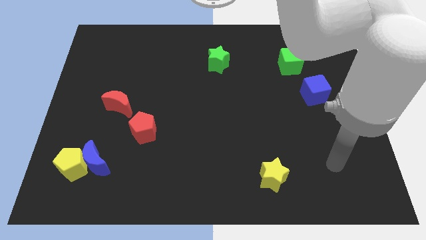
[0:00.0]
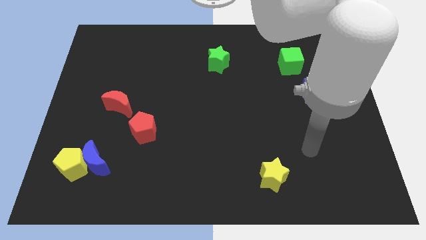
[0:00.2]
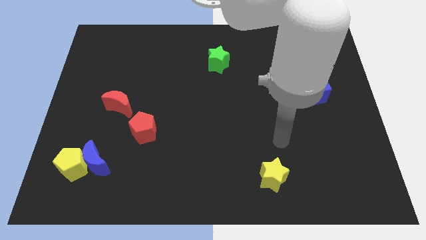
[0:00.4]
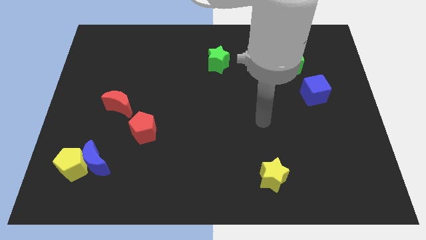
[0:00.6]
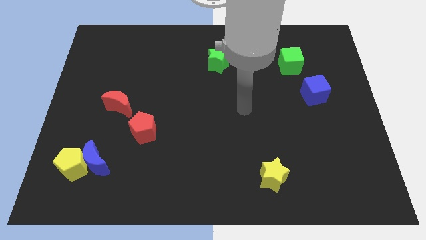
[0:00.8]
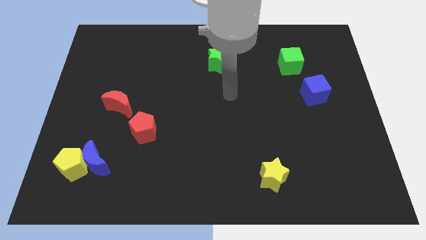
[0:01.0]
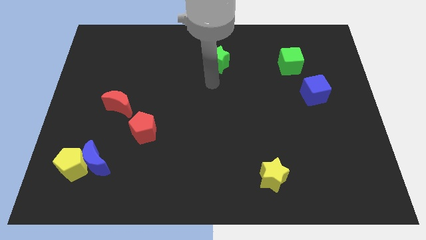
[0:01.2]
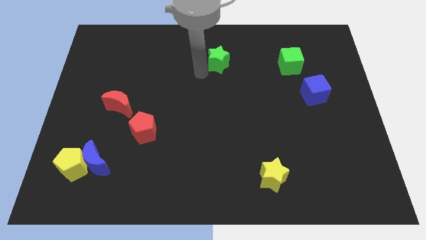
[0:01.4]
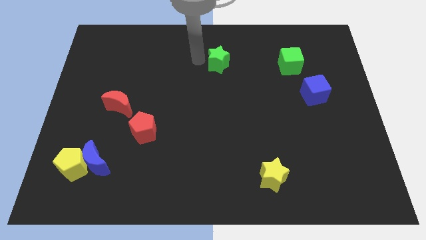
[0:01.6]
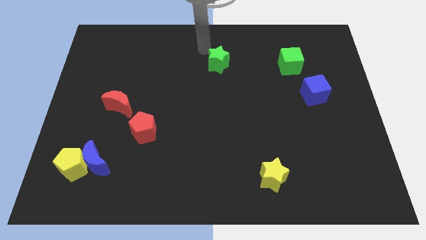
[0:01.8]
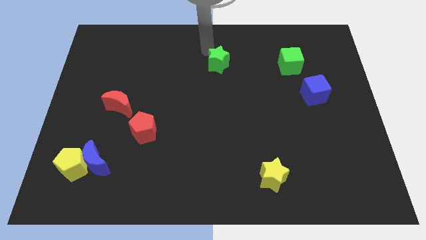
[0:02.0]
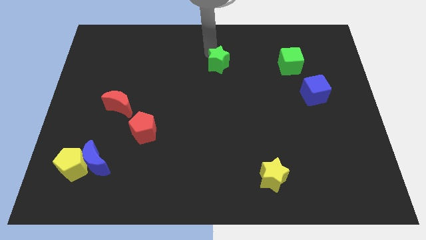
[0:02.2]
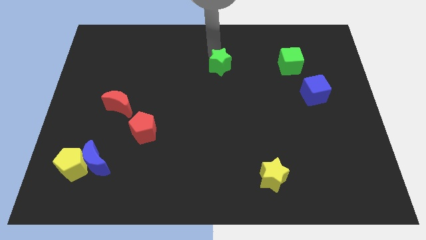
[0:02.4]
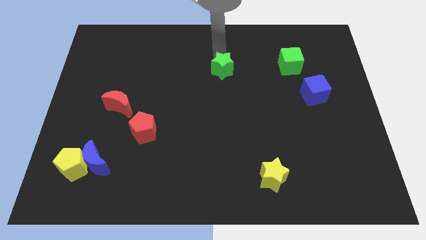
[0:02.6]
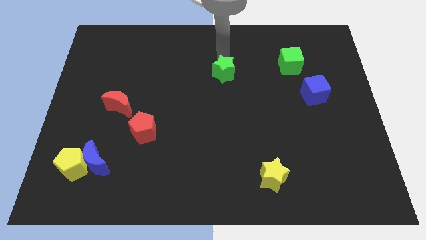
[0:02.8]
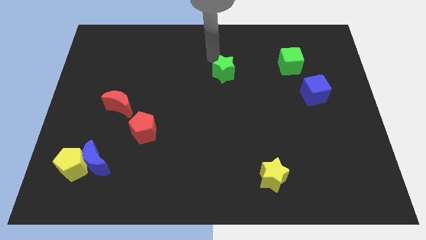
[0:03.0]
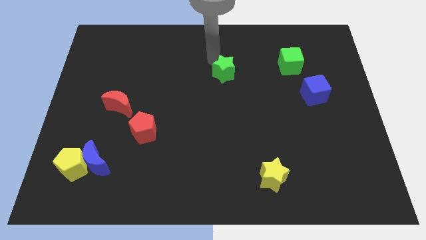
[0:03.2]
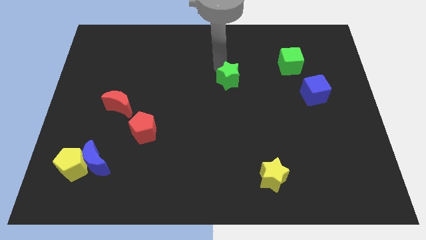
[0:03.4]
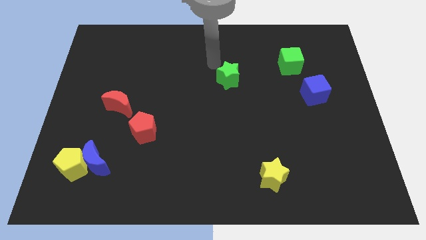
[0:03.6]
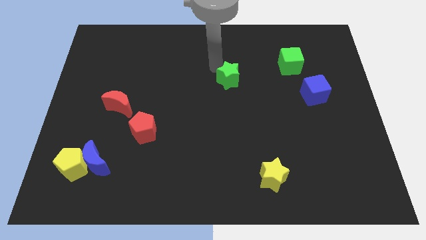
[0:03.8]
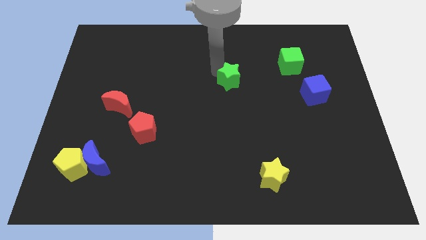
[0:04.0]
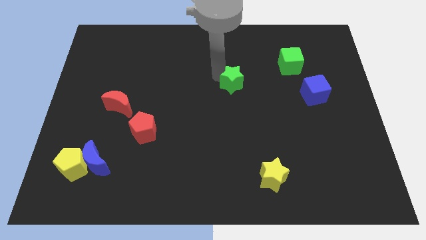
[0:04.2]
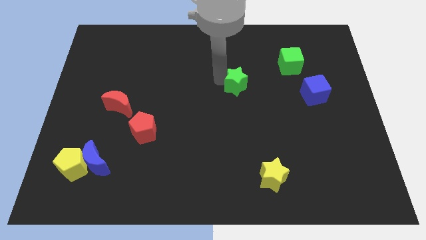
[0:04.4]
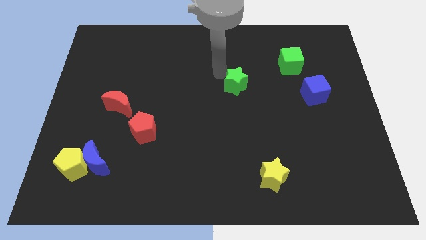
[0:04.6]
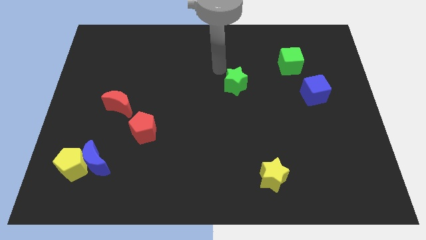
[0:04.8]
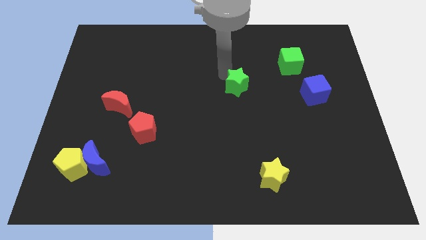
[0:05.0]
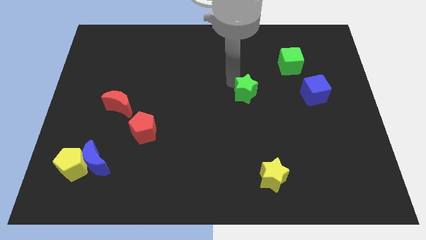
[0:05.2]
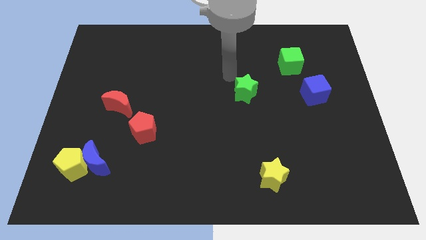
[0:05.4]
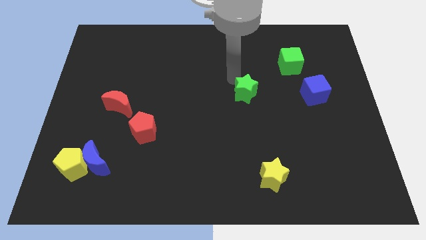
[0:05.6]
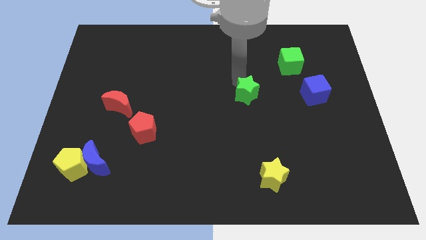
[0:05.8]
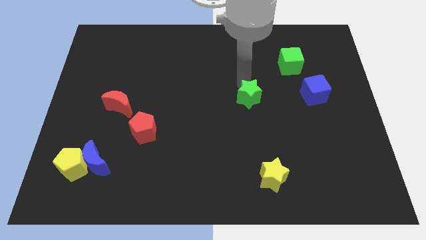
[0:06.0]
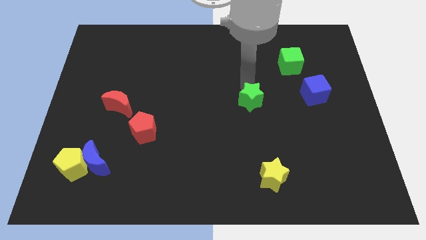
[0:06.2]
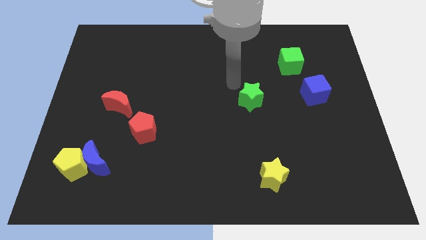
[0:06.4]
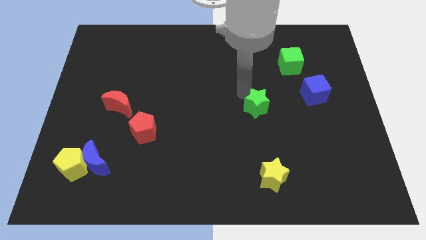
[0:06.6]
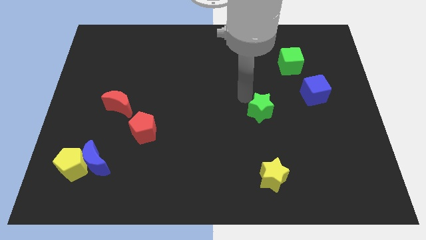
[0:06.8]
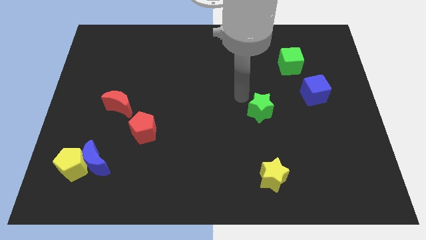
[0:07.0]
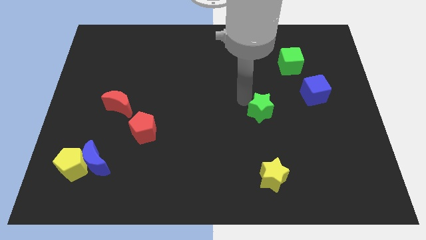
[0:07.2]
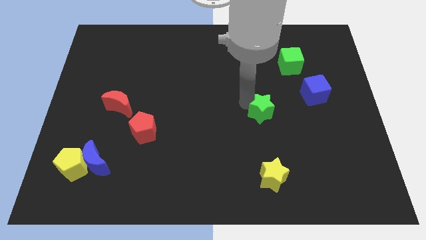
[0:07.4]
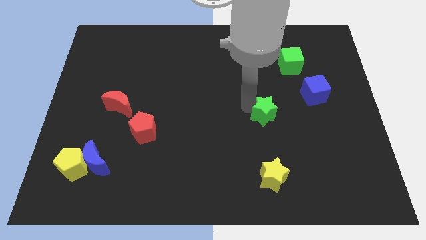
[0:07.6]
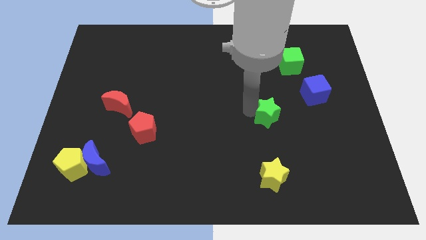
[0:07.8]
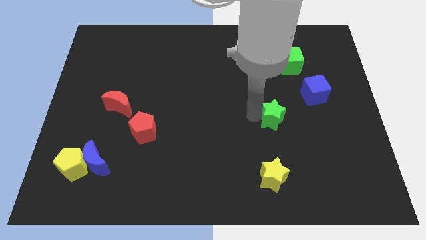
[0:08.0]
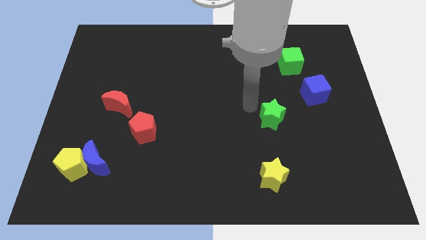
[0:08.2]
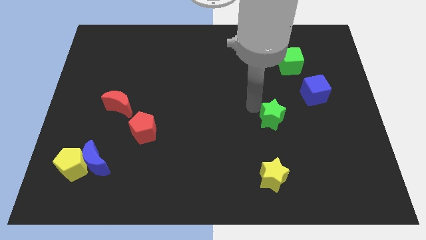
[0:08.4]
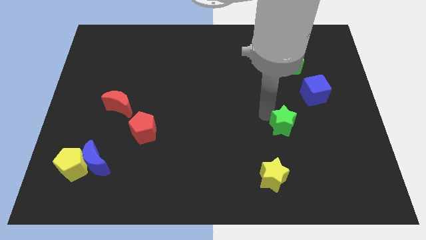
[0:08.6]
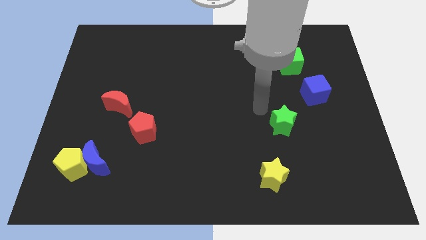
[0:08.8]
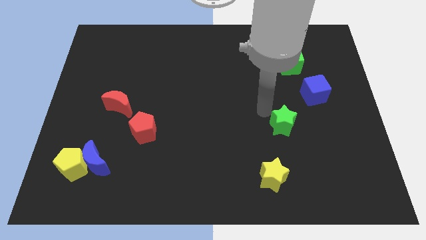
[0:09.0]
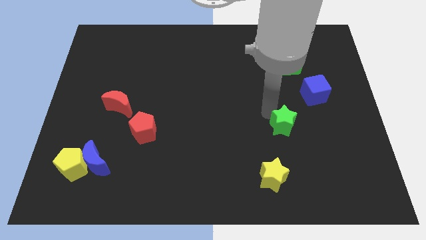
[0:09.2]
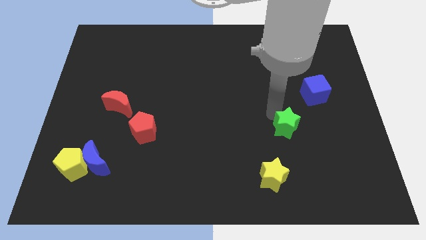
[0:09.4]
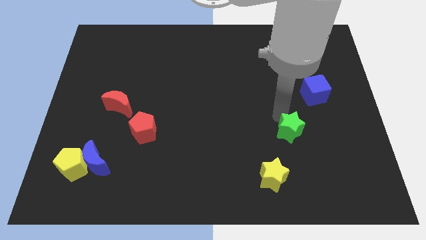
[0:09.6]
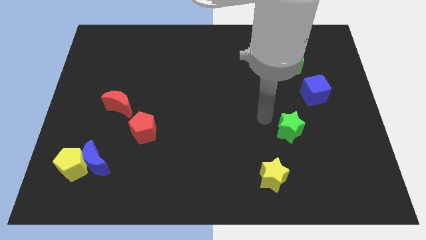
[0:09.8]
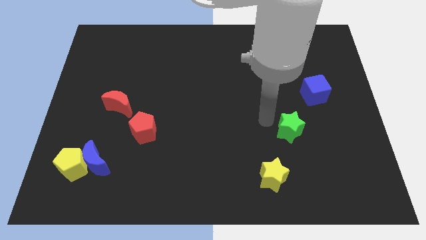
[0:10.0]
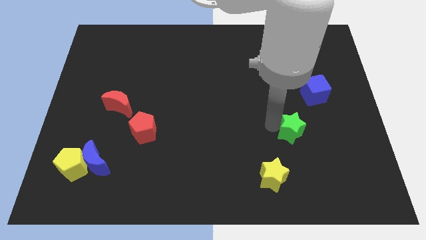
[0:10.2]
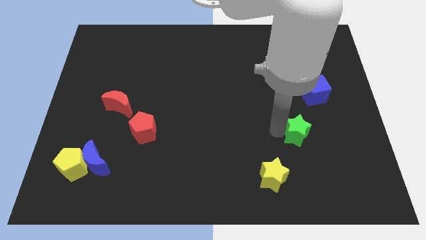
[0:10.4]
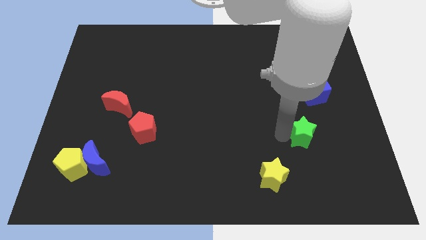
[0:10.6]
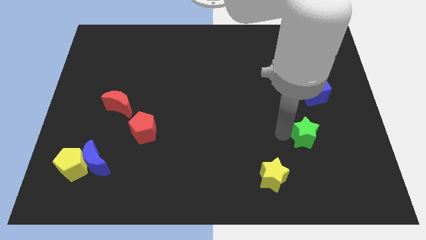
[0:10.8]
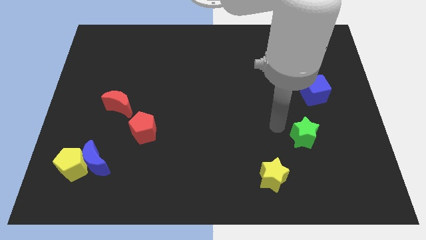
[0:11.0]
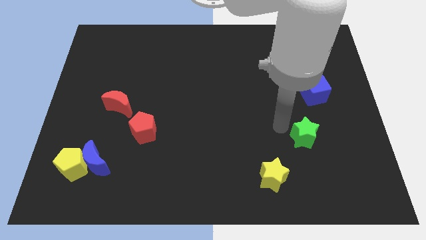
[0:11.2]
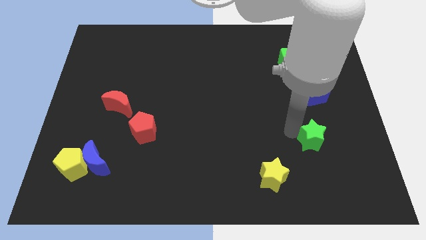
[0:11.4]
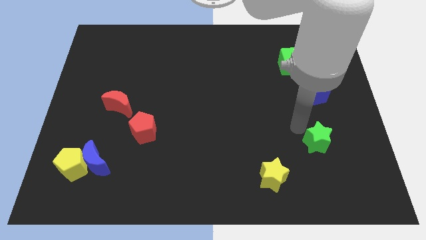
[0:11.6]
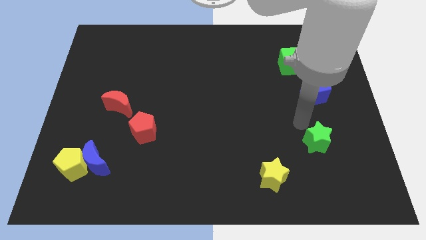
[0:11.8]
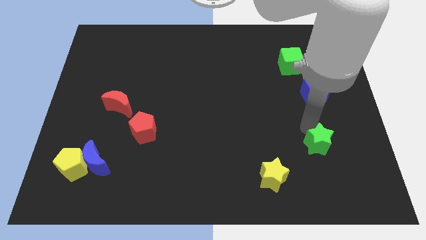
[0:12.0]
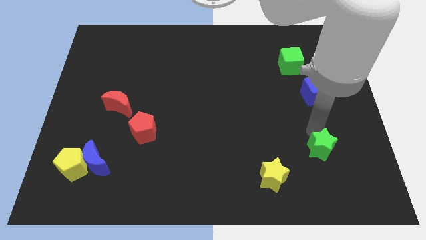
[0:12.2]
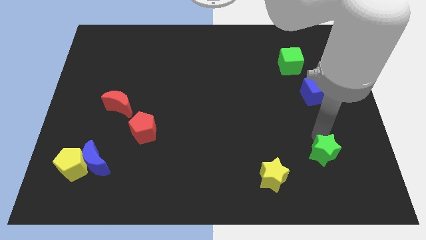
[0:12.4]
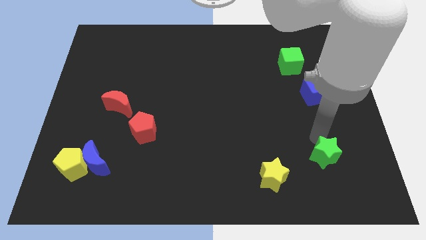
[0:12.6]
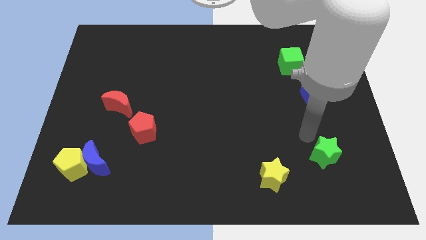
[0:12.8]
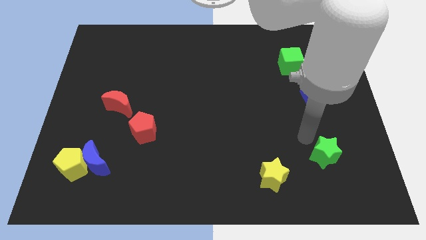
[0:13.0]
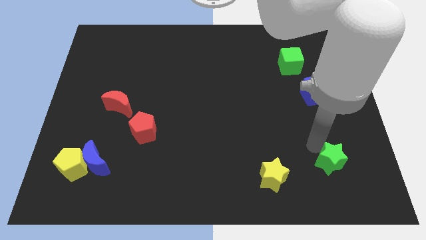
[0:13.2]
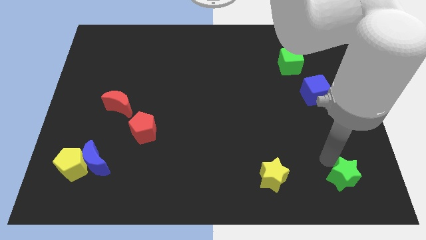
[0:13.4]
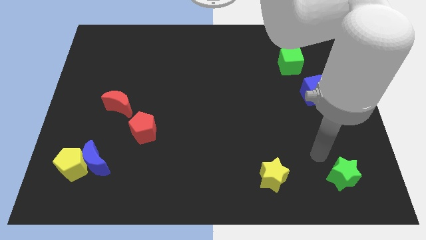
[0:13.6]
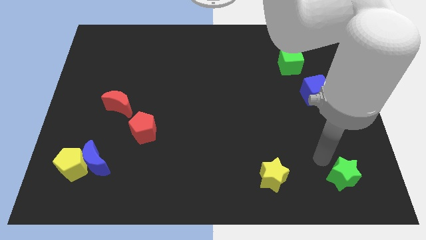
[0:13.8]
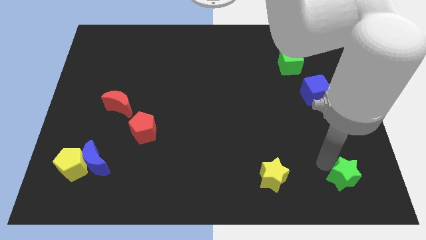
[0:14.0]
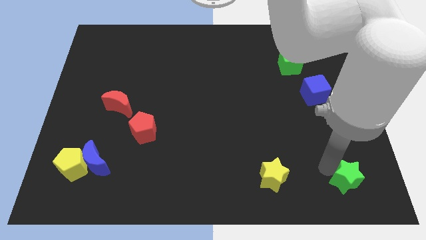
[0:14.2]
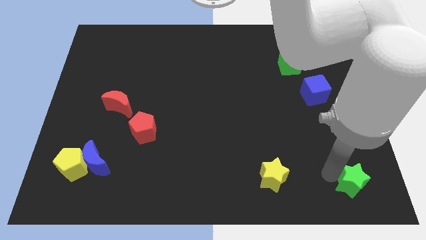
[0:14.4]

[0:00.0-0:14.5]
slide the green star to the lower right corner
